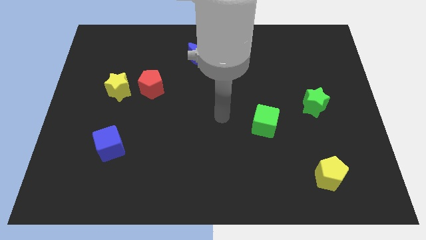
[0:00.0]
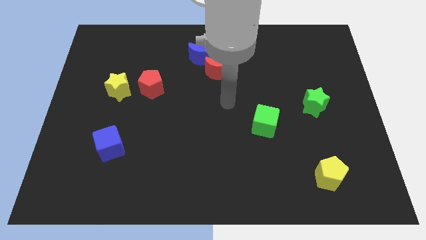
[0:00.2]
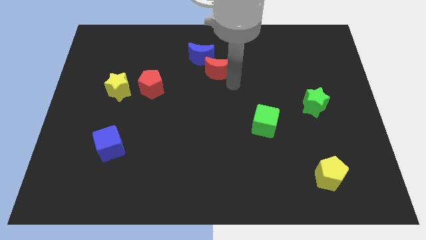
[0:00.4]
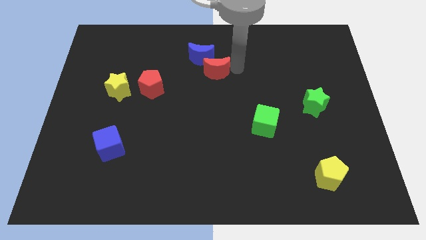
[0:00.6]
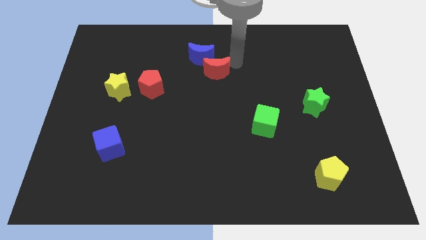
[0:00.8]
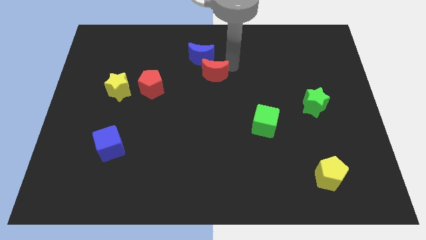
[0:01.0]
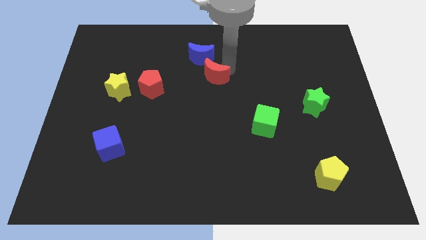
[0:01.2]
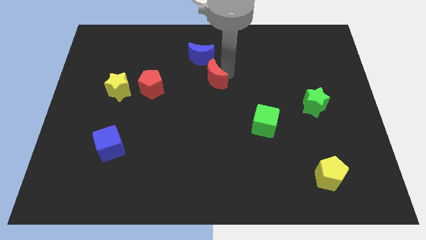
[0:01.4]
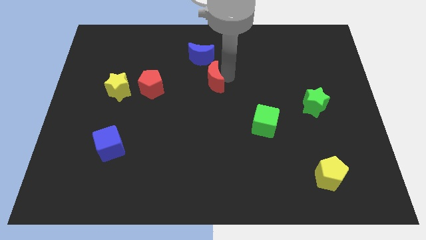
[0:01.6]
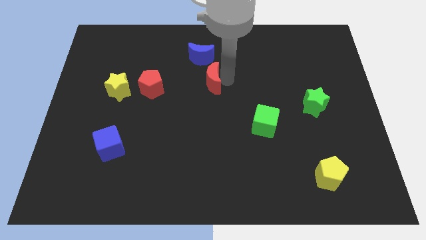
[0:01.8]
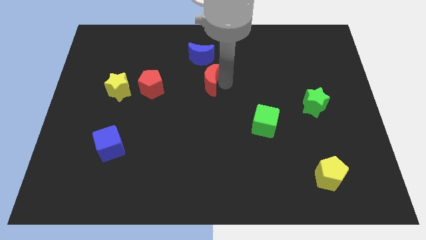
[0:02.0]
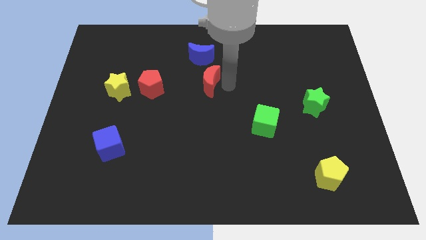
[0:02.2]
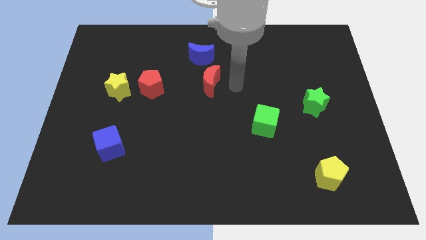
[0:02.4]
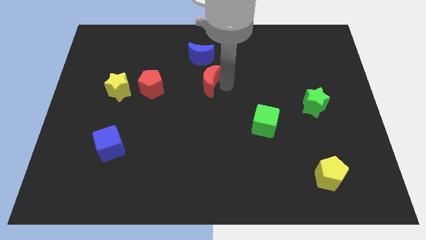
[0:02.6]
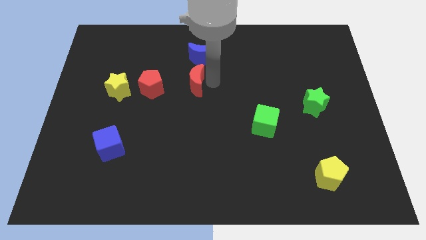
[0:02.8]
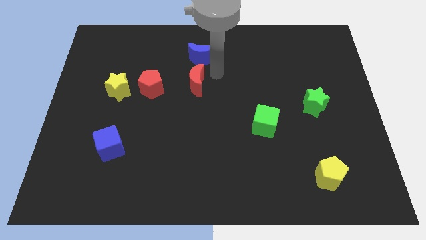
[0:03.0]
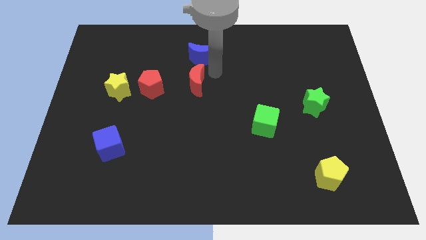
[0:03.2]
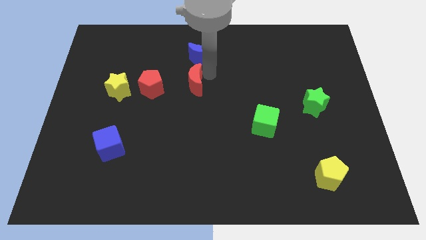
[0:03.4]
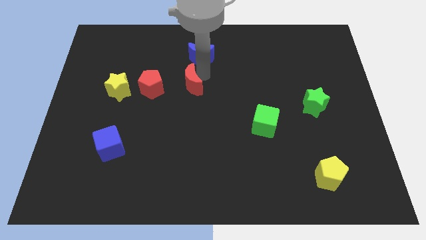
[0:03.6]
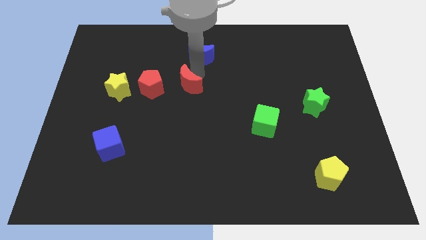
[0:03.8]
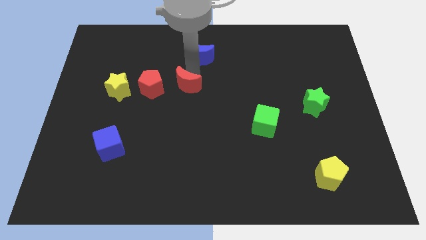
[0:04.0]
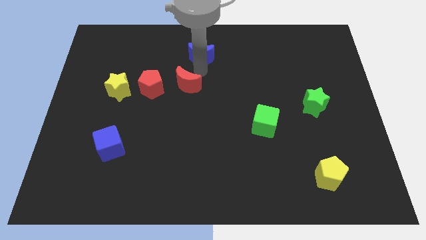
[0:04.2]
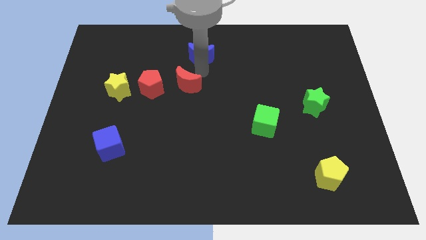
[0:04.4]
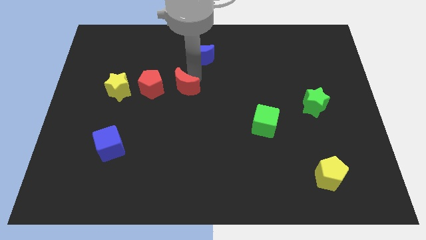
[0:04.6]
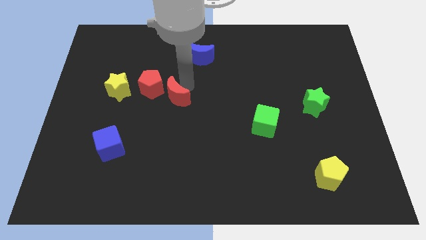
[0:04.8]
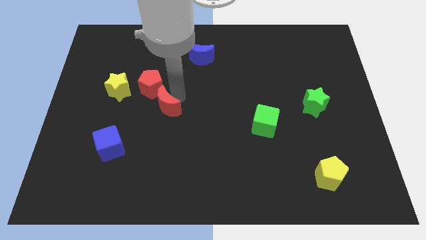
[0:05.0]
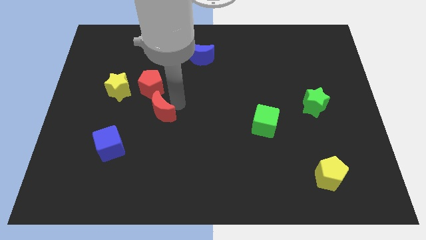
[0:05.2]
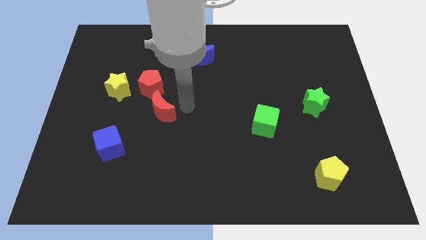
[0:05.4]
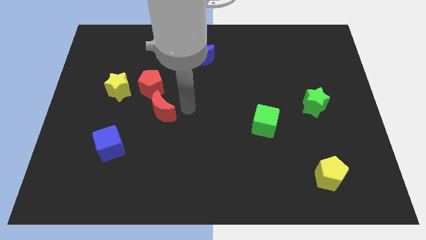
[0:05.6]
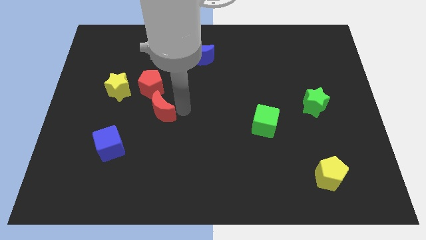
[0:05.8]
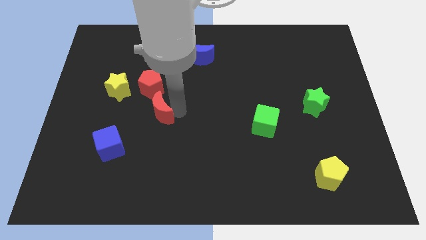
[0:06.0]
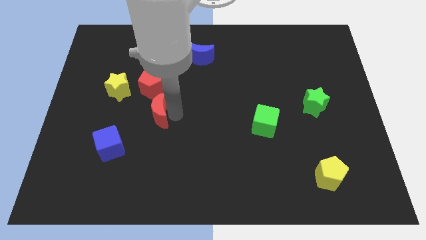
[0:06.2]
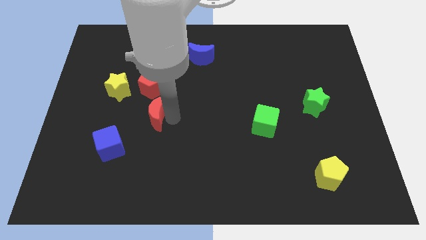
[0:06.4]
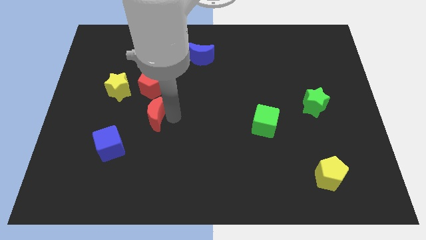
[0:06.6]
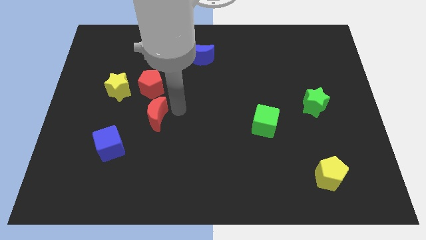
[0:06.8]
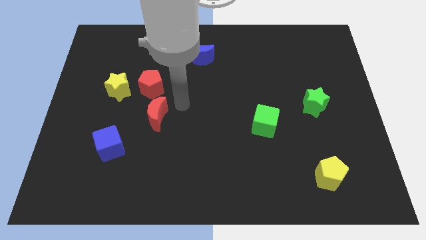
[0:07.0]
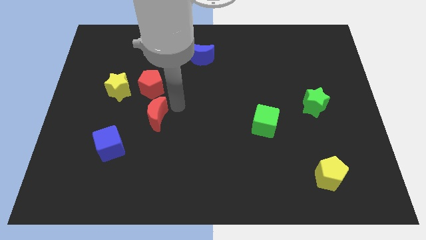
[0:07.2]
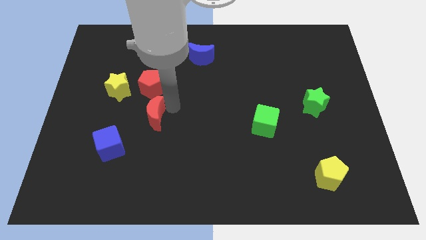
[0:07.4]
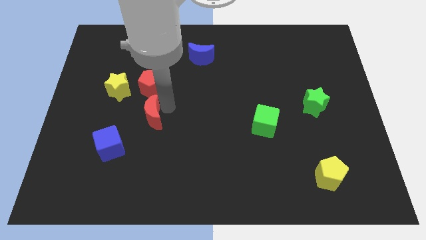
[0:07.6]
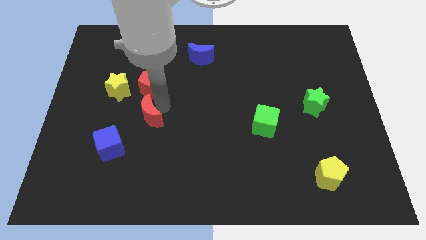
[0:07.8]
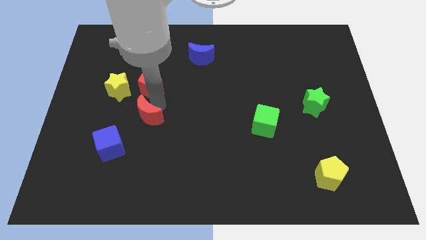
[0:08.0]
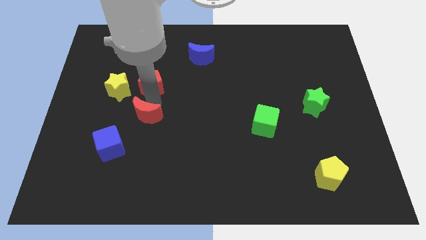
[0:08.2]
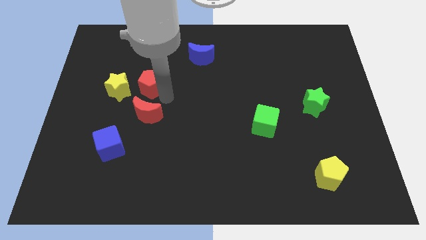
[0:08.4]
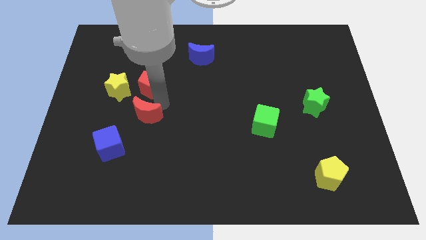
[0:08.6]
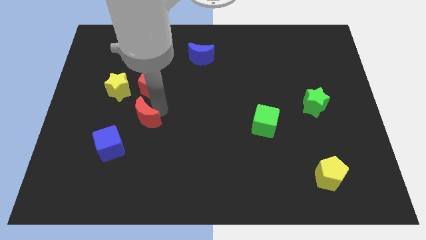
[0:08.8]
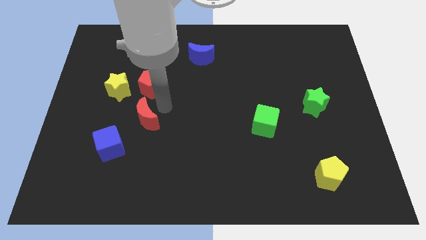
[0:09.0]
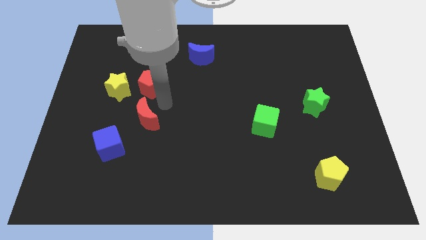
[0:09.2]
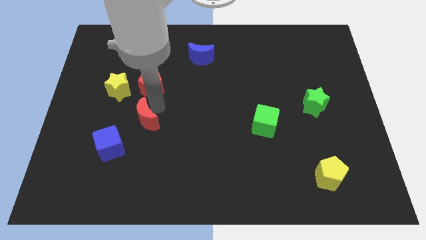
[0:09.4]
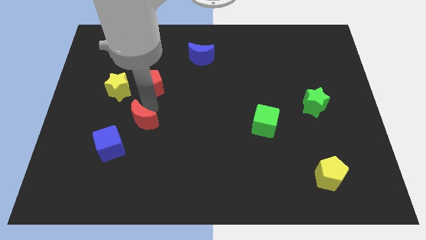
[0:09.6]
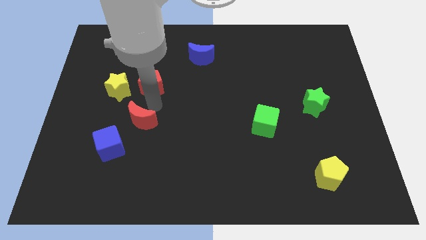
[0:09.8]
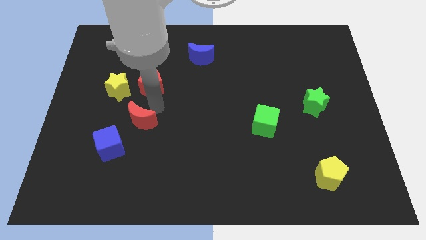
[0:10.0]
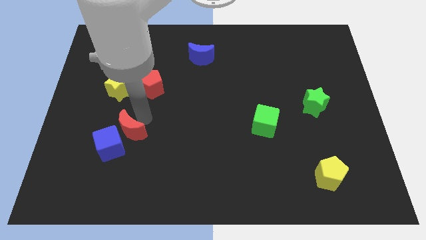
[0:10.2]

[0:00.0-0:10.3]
slide the red moon close to the blue cube

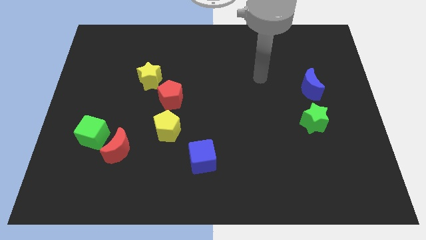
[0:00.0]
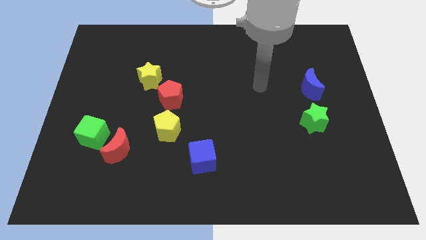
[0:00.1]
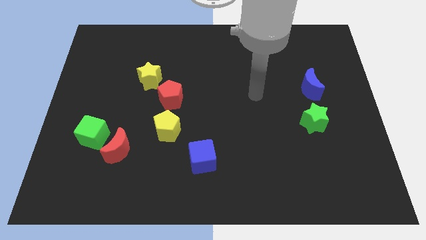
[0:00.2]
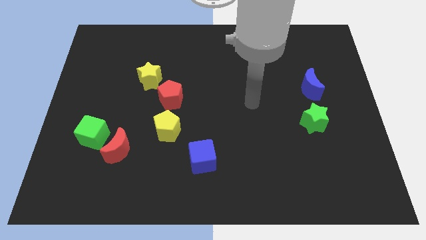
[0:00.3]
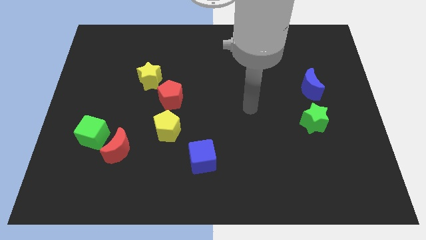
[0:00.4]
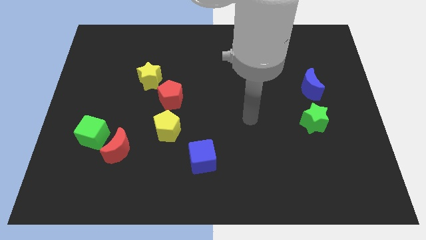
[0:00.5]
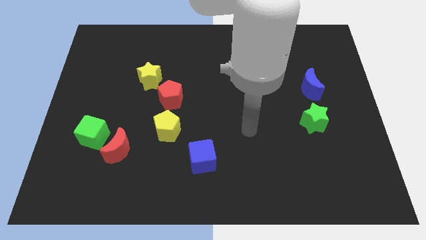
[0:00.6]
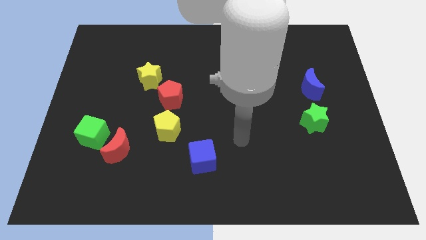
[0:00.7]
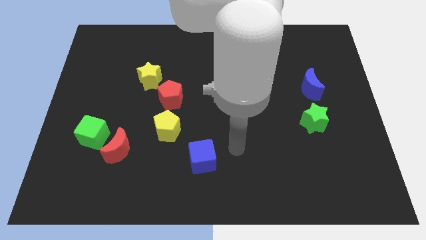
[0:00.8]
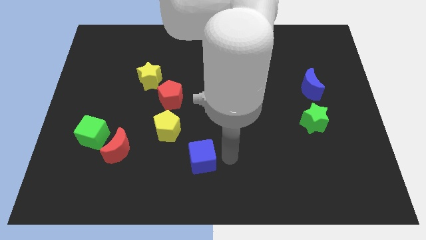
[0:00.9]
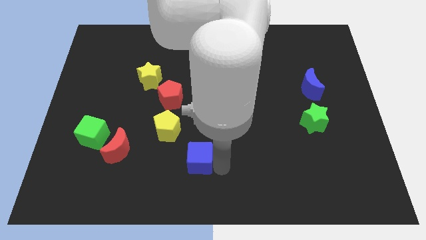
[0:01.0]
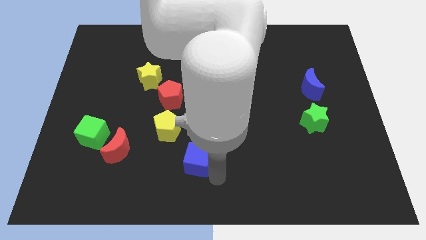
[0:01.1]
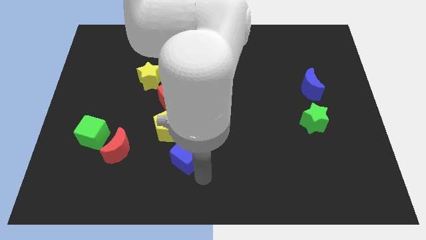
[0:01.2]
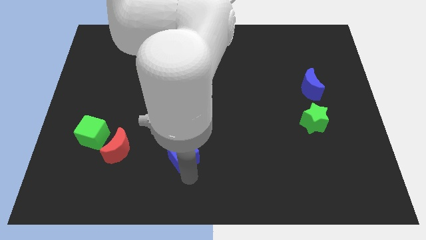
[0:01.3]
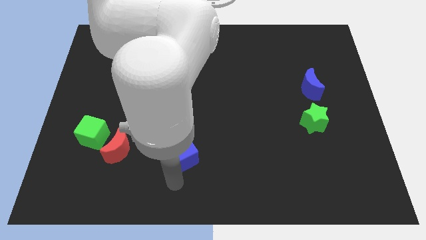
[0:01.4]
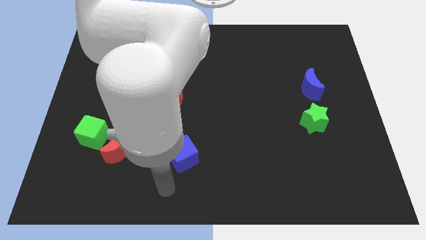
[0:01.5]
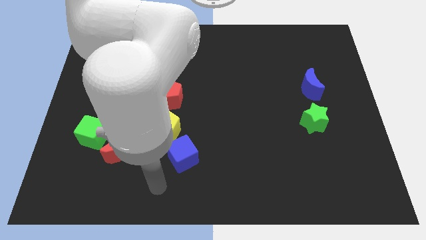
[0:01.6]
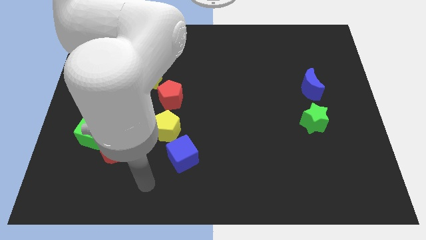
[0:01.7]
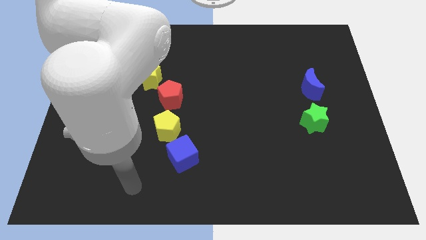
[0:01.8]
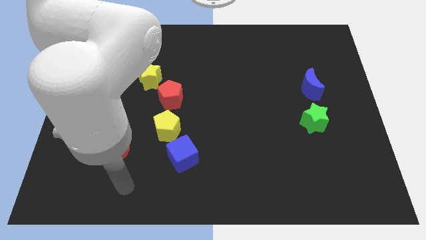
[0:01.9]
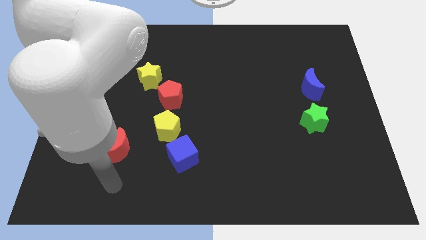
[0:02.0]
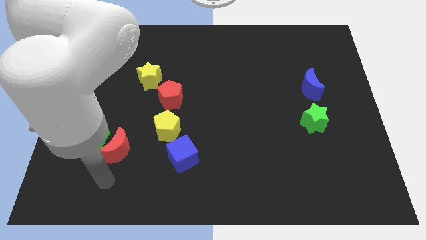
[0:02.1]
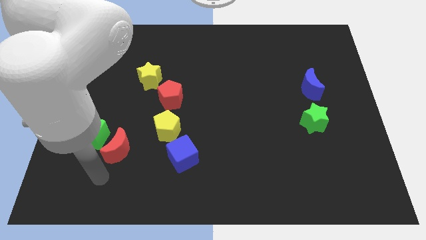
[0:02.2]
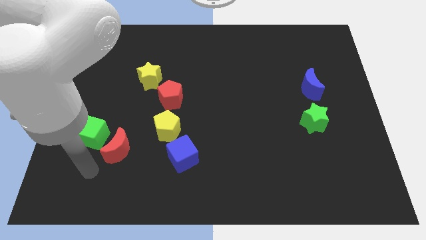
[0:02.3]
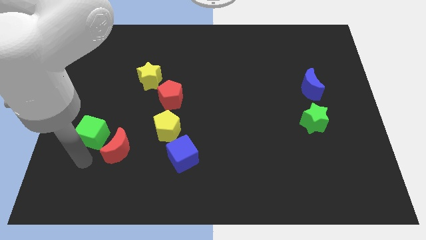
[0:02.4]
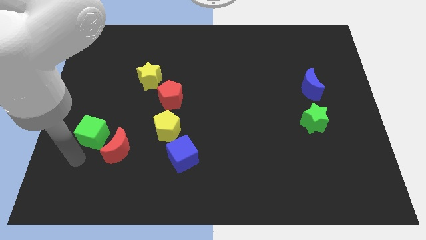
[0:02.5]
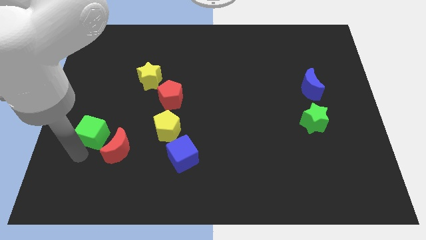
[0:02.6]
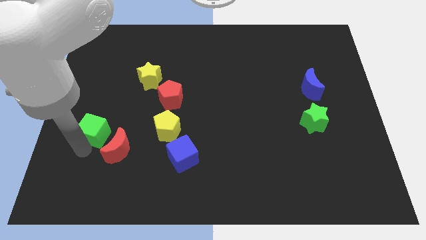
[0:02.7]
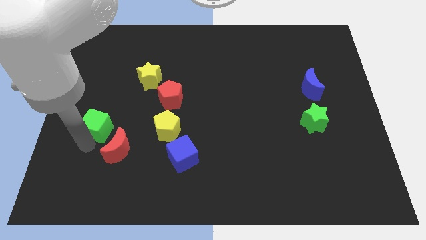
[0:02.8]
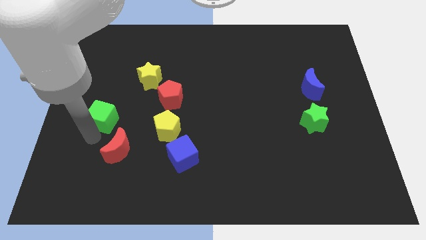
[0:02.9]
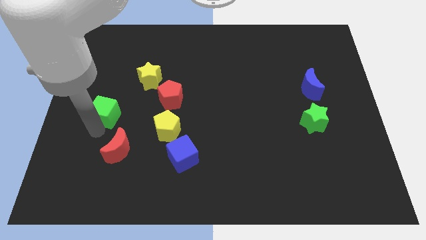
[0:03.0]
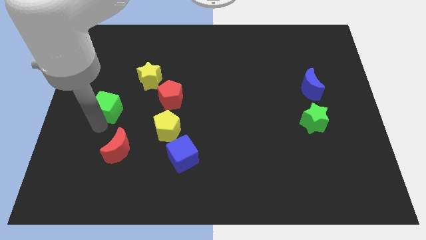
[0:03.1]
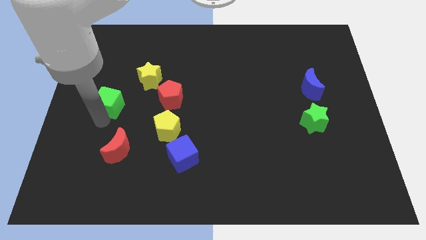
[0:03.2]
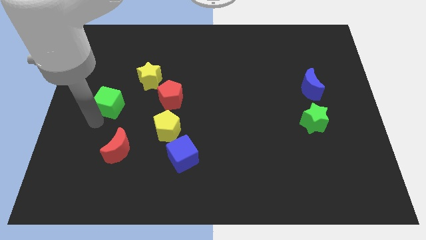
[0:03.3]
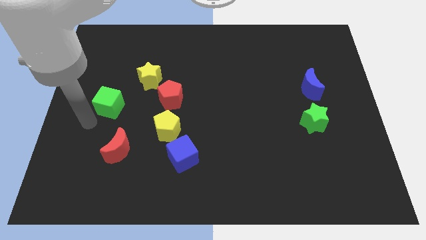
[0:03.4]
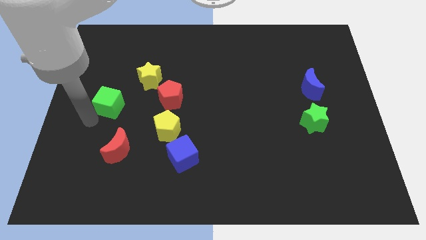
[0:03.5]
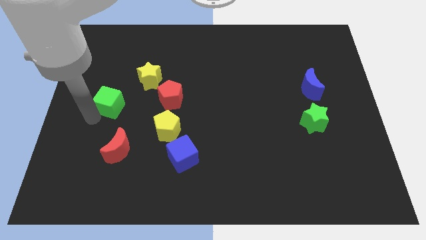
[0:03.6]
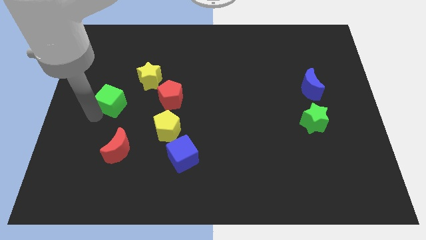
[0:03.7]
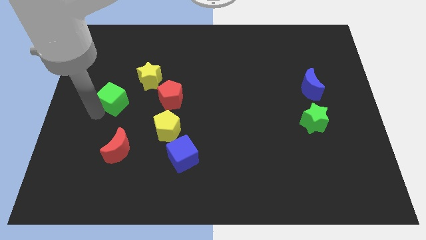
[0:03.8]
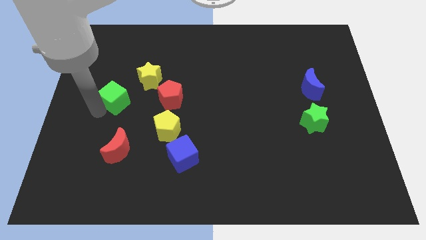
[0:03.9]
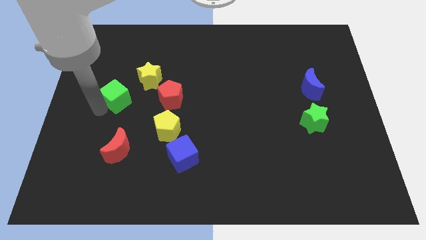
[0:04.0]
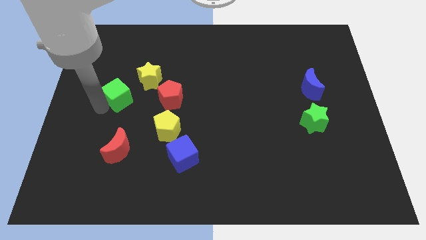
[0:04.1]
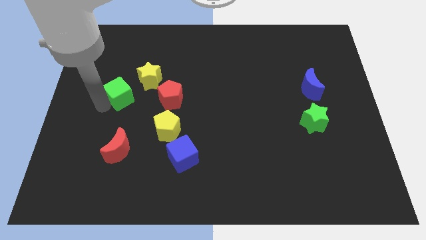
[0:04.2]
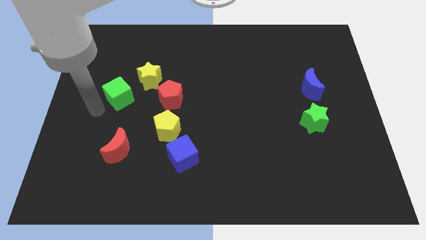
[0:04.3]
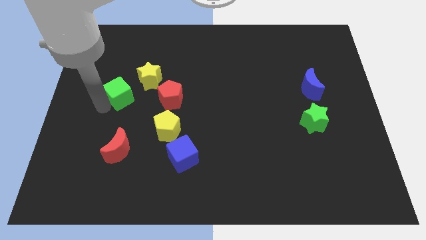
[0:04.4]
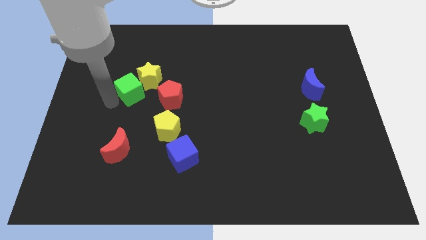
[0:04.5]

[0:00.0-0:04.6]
slide the green cube close to the yellow star
